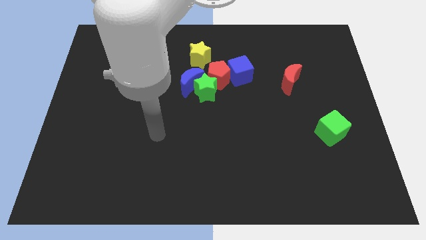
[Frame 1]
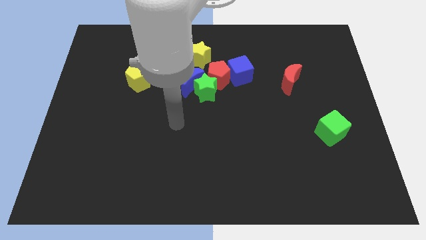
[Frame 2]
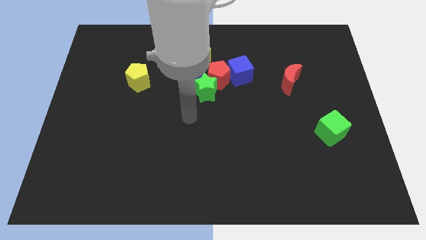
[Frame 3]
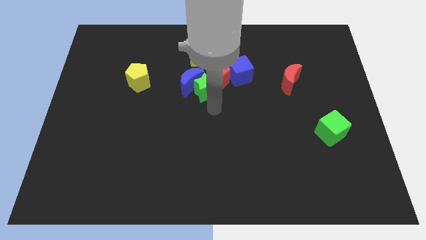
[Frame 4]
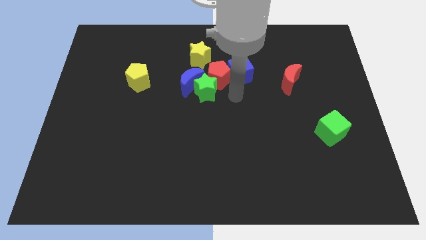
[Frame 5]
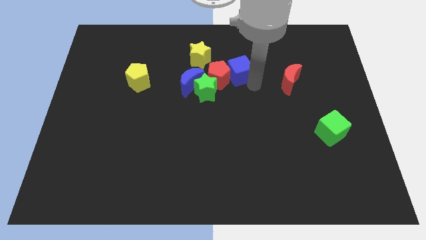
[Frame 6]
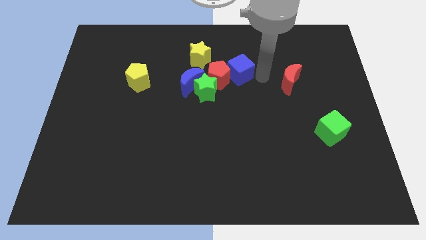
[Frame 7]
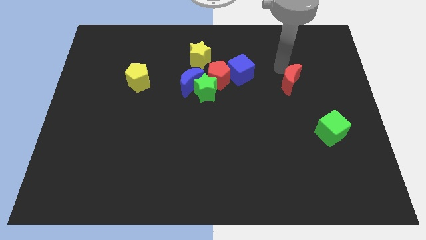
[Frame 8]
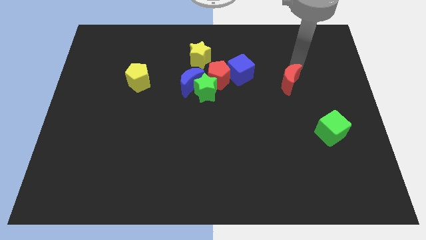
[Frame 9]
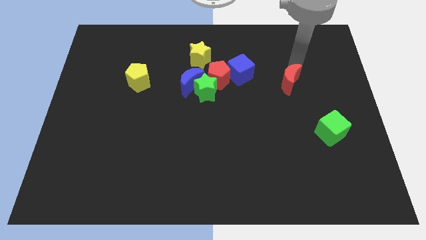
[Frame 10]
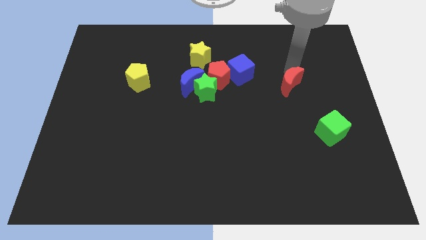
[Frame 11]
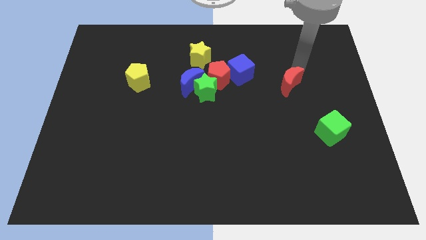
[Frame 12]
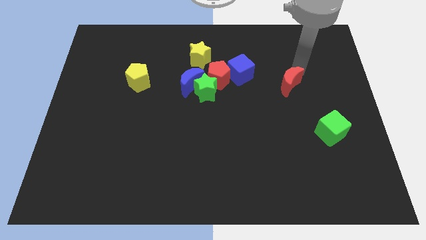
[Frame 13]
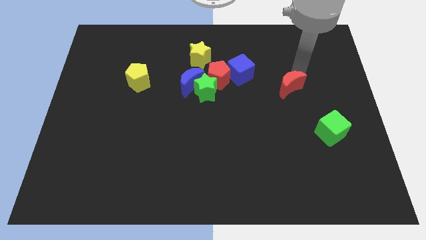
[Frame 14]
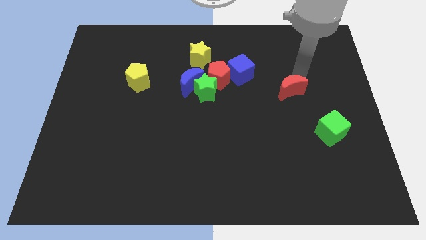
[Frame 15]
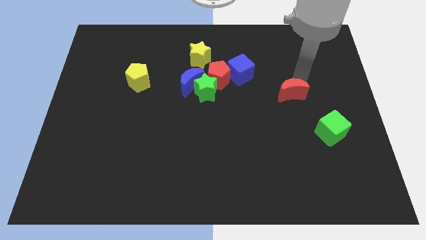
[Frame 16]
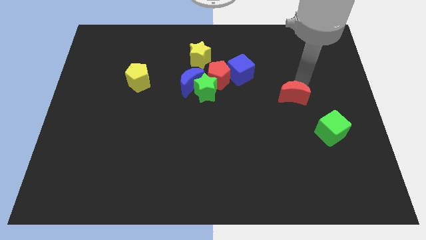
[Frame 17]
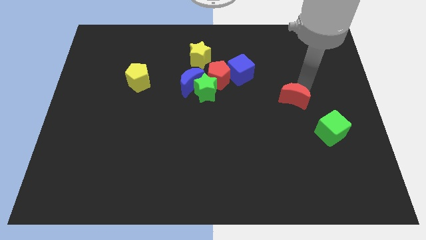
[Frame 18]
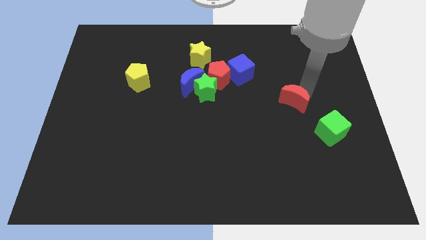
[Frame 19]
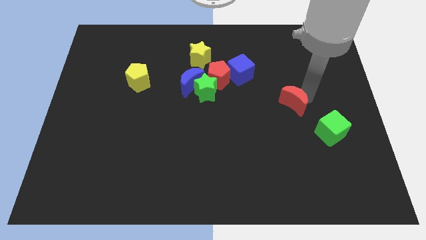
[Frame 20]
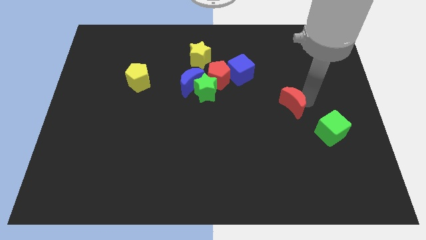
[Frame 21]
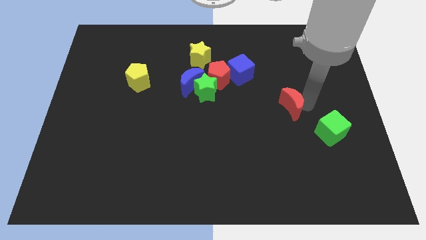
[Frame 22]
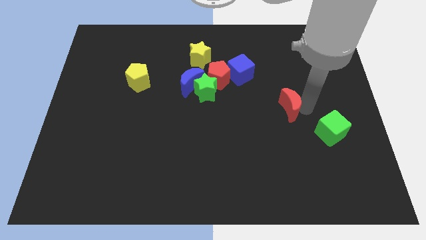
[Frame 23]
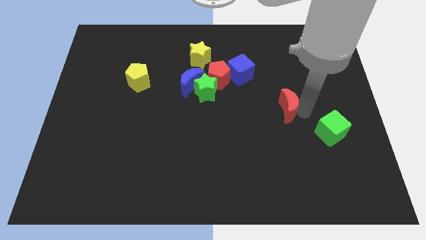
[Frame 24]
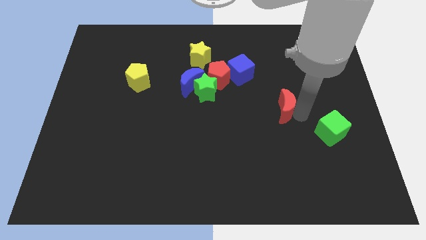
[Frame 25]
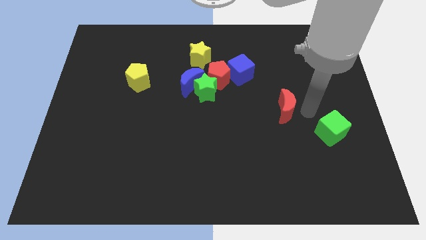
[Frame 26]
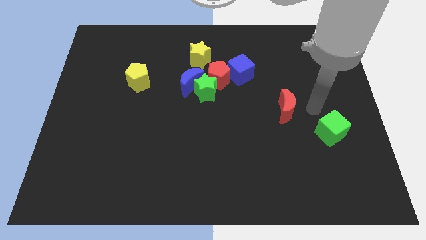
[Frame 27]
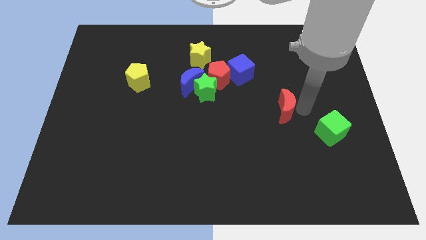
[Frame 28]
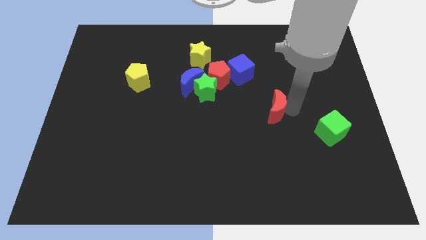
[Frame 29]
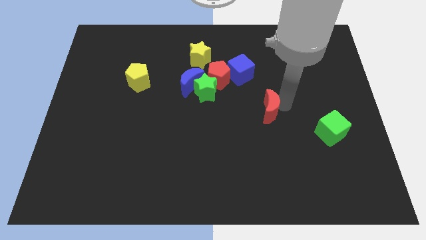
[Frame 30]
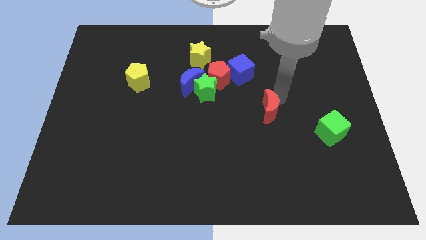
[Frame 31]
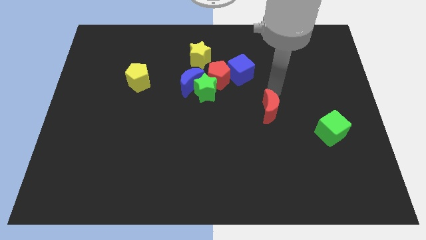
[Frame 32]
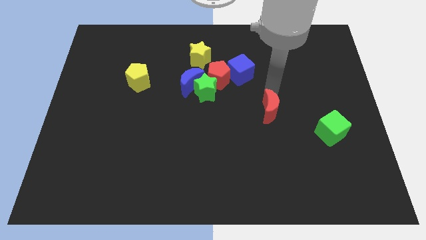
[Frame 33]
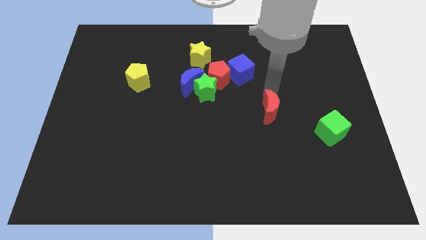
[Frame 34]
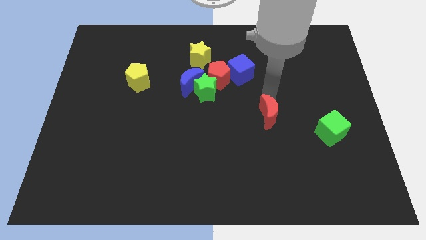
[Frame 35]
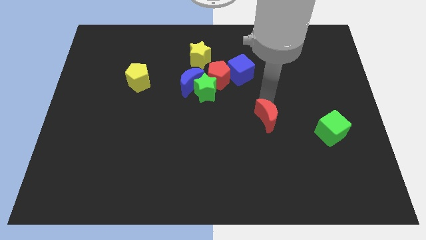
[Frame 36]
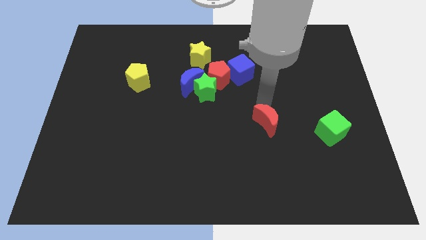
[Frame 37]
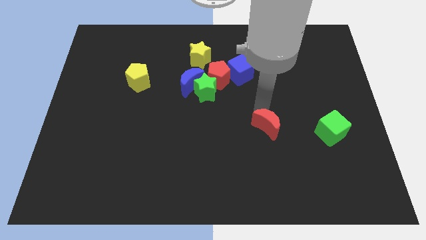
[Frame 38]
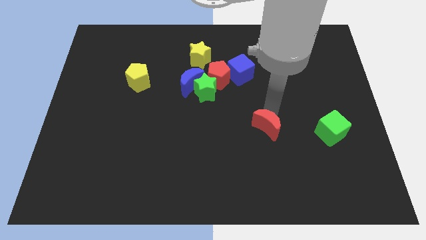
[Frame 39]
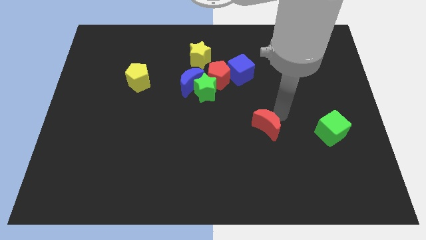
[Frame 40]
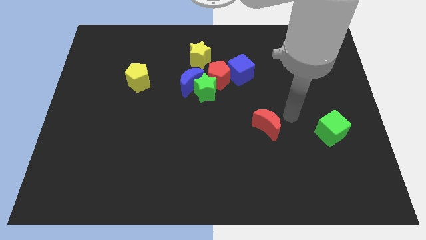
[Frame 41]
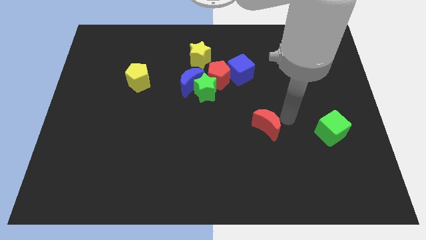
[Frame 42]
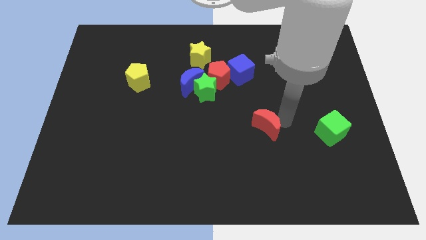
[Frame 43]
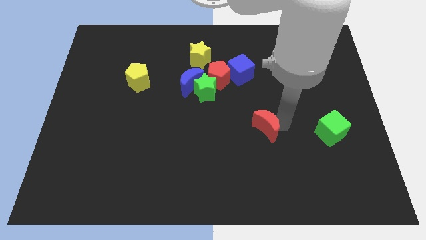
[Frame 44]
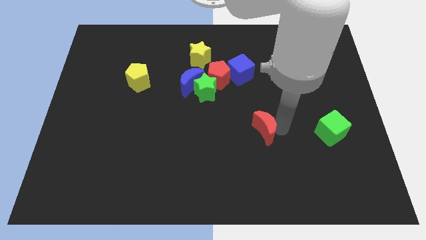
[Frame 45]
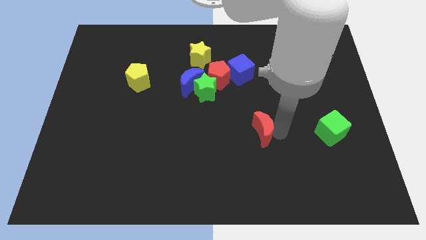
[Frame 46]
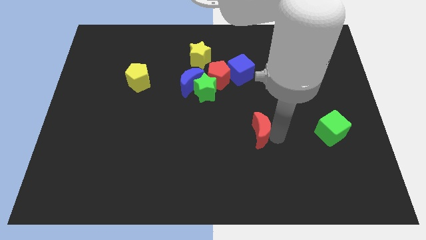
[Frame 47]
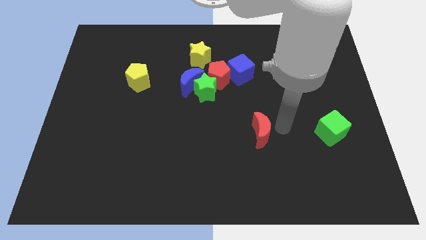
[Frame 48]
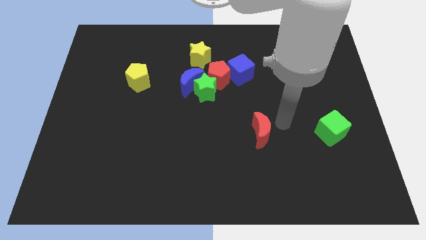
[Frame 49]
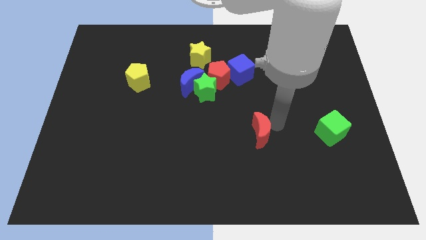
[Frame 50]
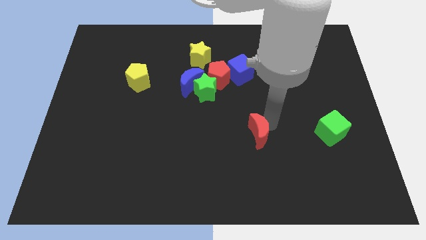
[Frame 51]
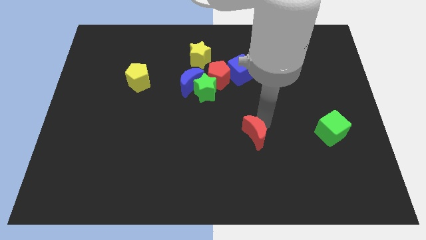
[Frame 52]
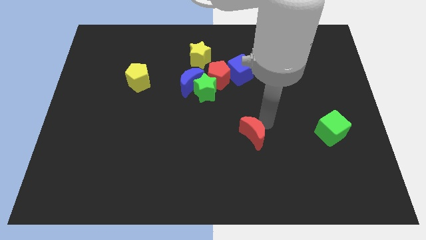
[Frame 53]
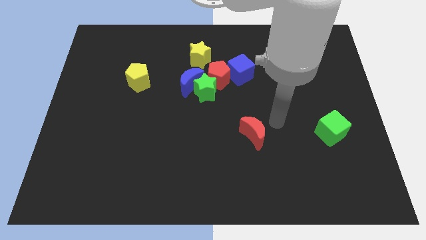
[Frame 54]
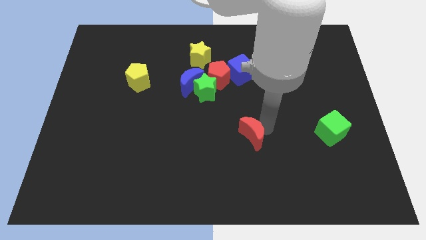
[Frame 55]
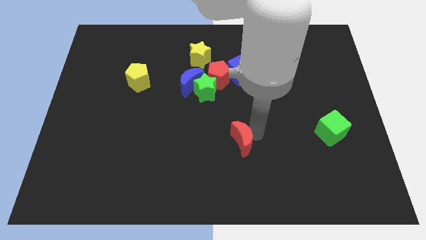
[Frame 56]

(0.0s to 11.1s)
push the red moon downwards and left

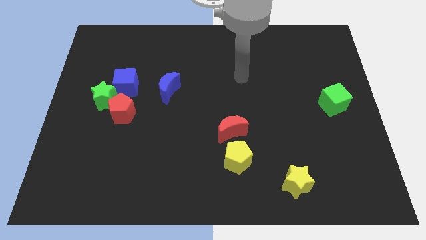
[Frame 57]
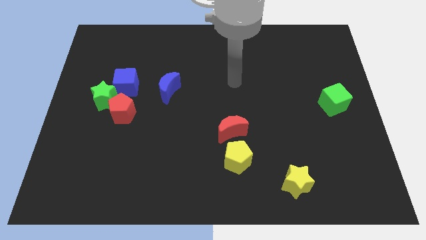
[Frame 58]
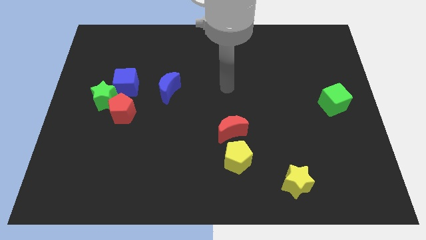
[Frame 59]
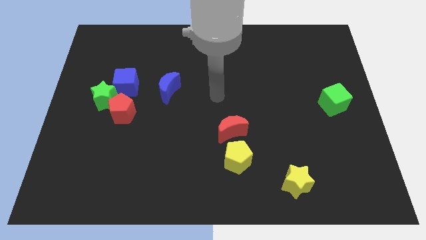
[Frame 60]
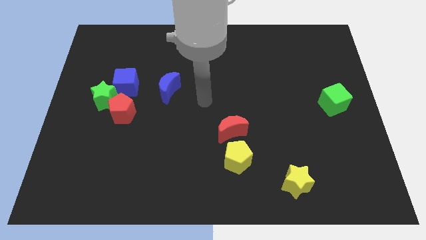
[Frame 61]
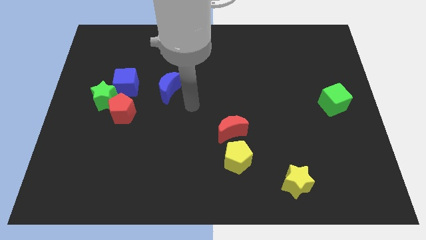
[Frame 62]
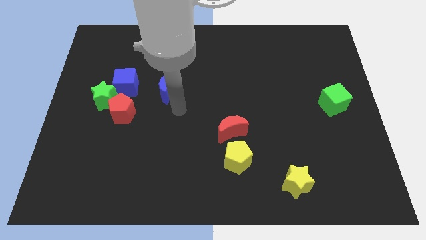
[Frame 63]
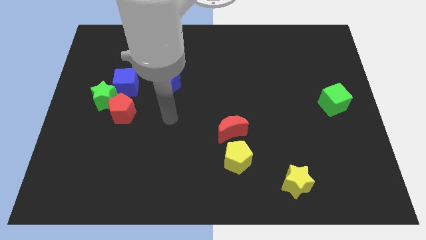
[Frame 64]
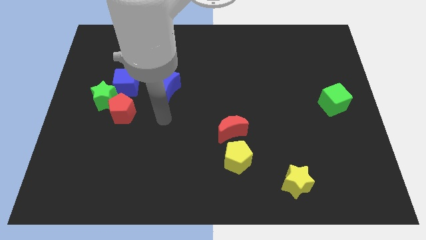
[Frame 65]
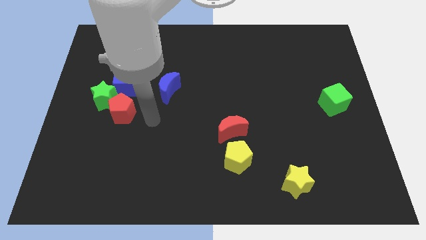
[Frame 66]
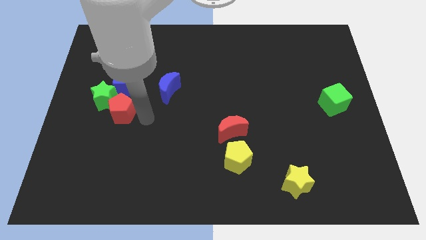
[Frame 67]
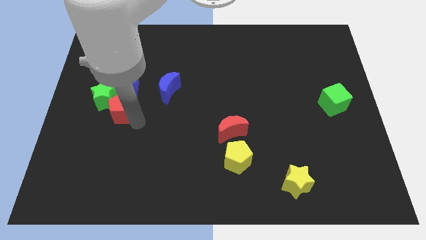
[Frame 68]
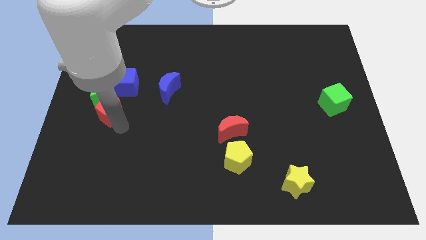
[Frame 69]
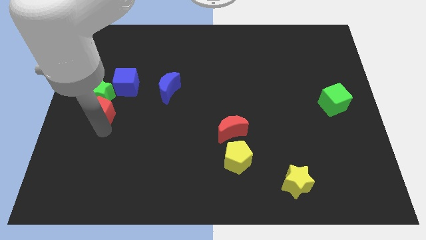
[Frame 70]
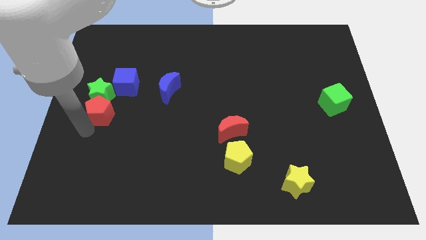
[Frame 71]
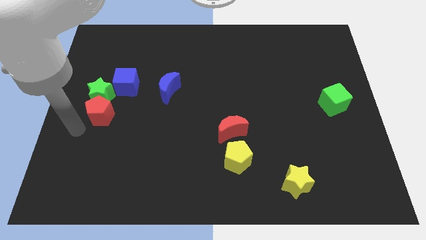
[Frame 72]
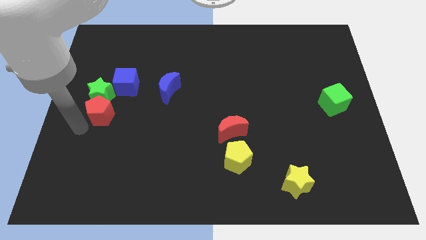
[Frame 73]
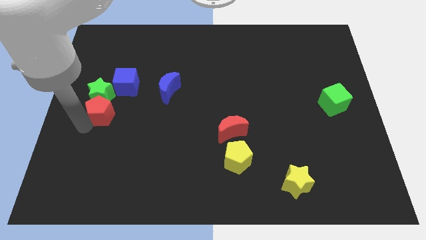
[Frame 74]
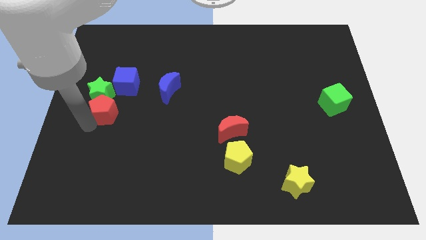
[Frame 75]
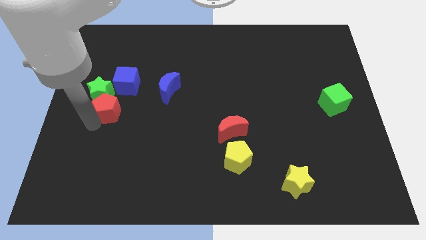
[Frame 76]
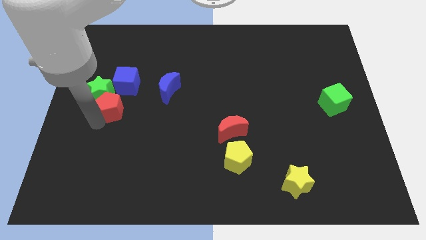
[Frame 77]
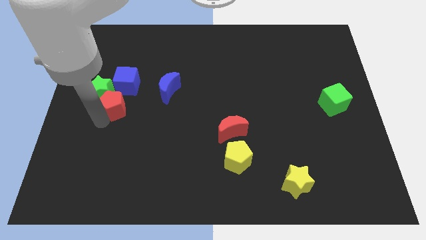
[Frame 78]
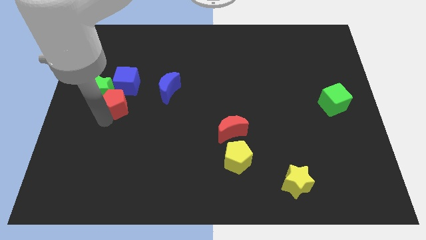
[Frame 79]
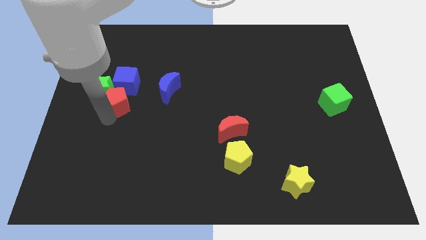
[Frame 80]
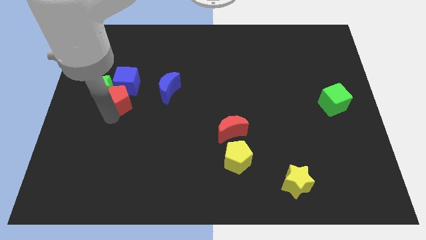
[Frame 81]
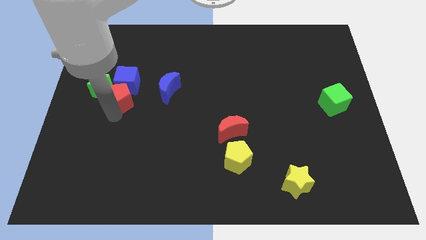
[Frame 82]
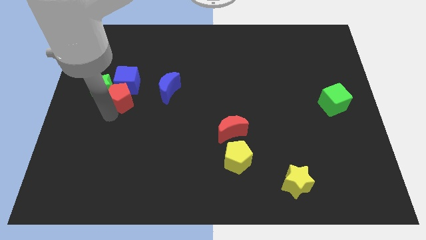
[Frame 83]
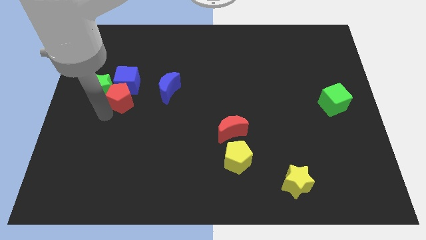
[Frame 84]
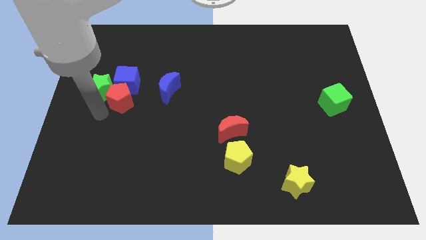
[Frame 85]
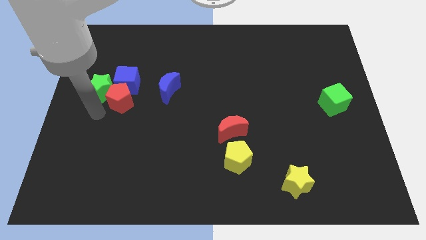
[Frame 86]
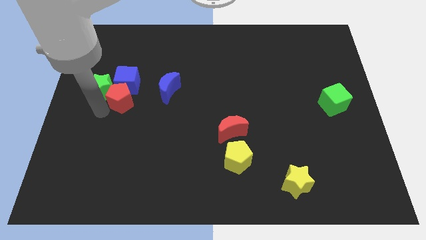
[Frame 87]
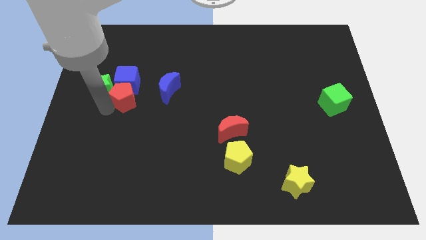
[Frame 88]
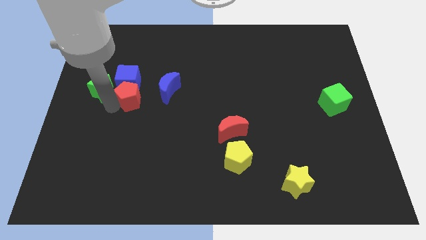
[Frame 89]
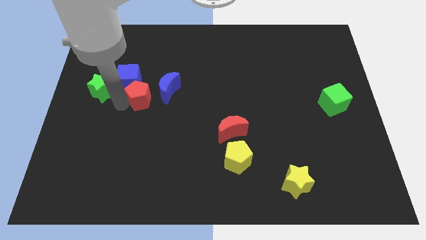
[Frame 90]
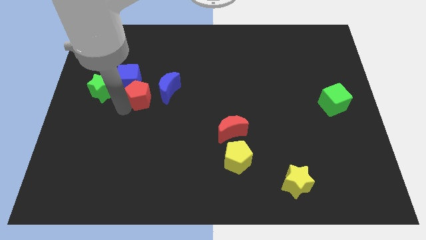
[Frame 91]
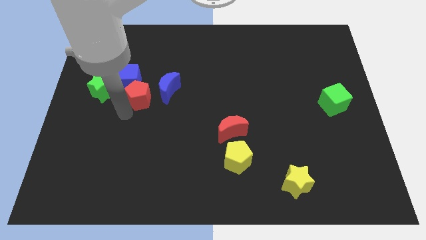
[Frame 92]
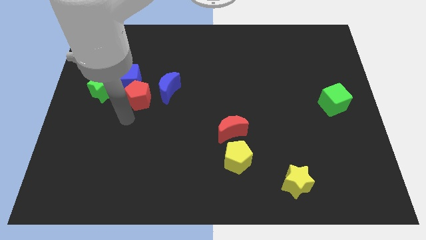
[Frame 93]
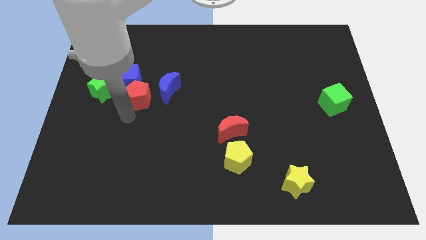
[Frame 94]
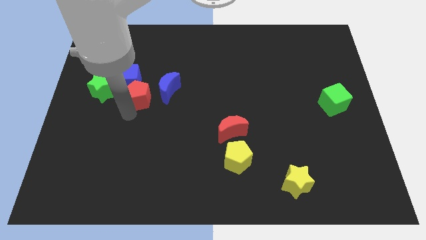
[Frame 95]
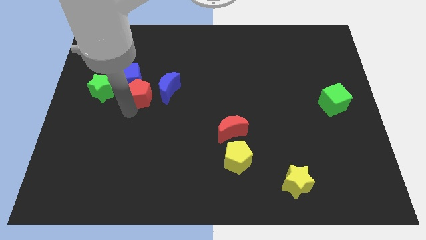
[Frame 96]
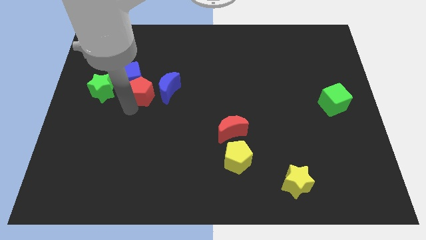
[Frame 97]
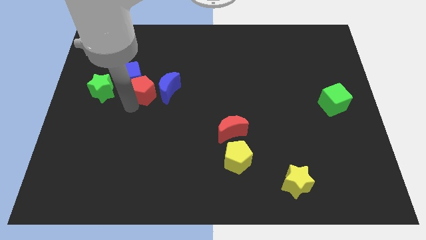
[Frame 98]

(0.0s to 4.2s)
slightly move the red pentagon up and to the right diagonally
